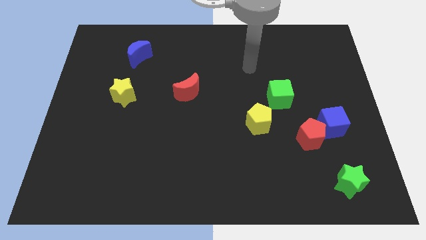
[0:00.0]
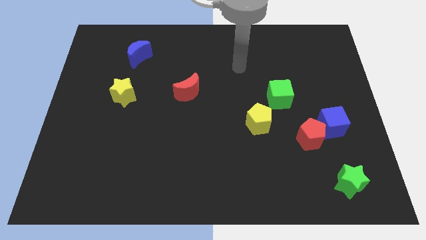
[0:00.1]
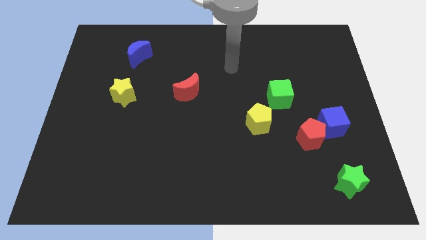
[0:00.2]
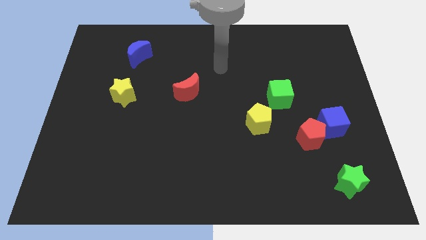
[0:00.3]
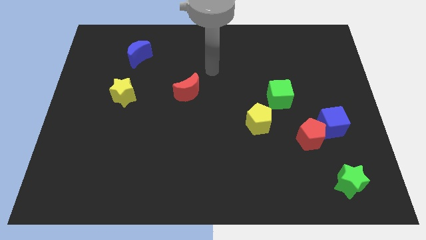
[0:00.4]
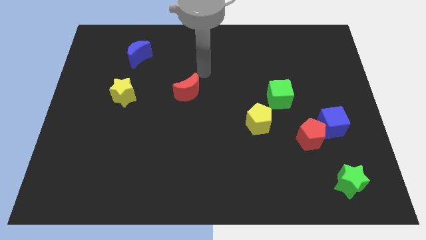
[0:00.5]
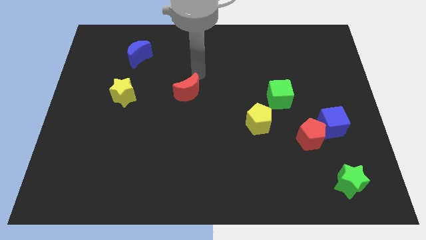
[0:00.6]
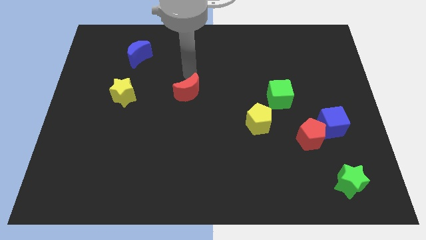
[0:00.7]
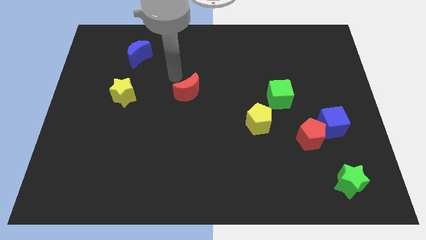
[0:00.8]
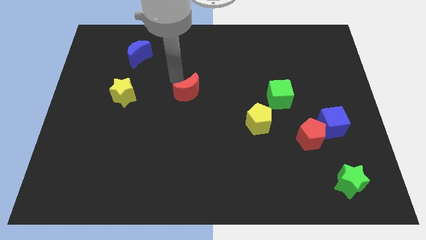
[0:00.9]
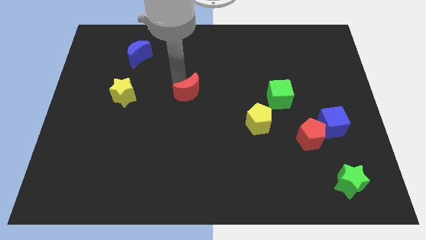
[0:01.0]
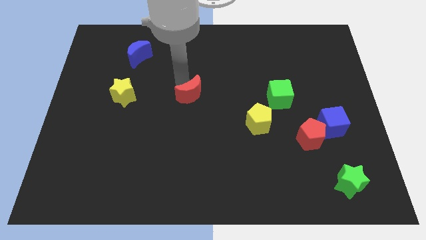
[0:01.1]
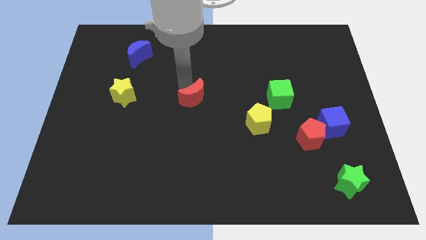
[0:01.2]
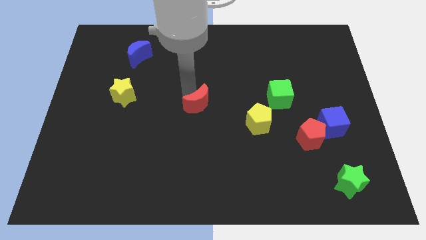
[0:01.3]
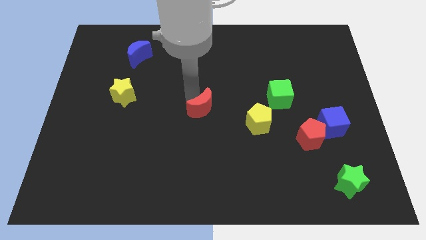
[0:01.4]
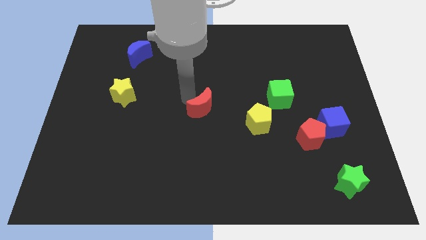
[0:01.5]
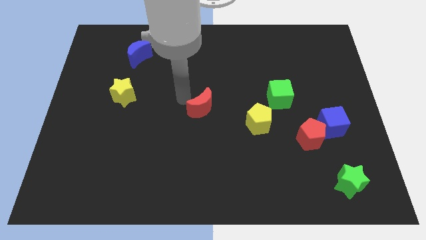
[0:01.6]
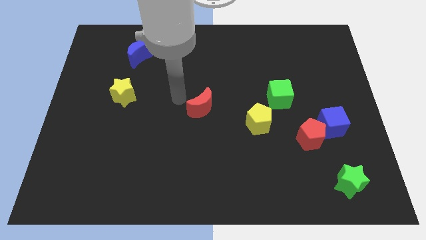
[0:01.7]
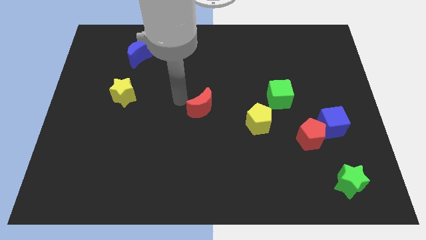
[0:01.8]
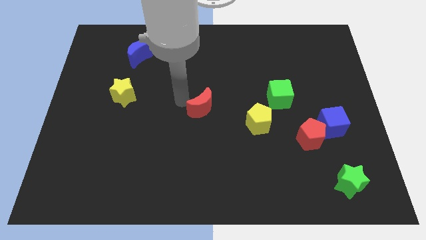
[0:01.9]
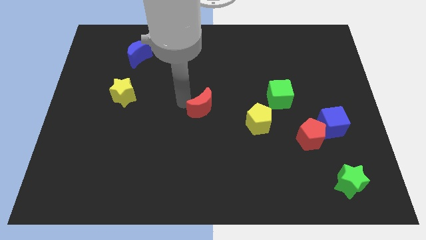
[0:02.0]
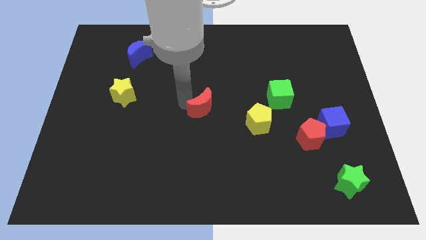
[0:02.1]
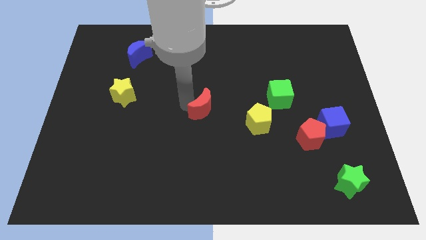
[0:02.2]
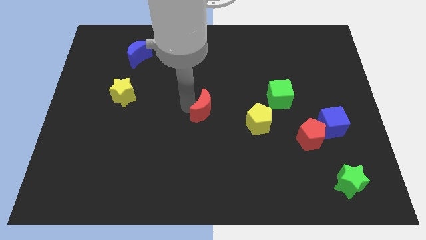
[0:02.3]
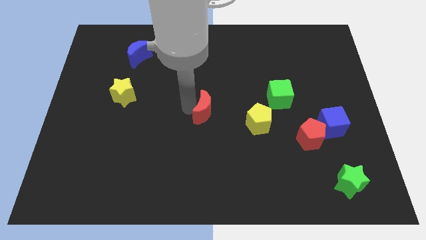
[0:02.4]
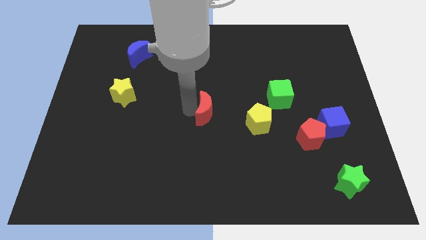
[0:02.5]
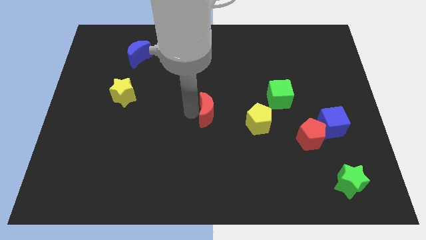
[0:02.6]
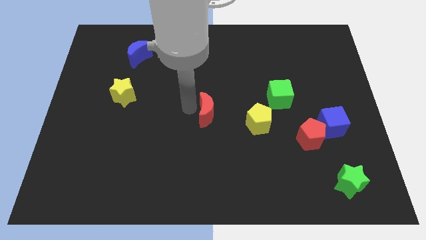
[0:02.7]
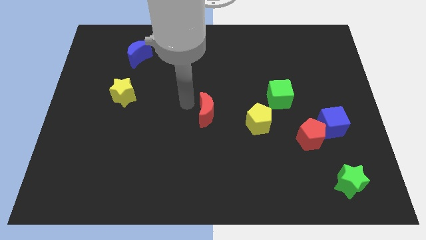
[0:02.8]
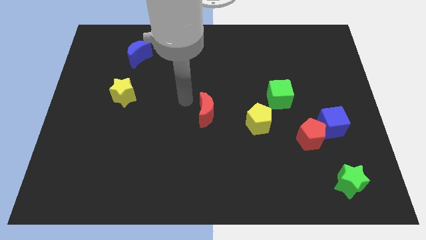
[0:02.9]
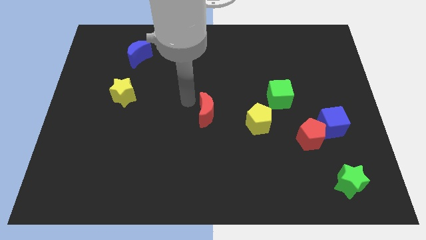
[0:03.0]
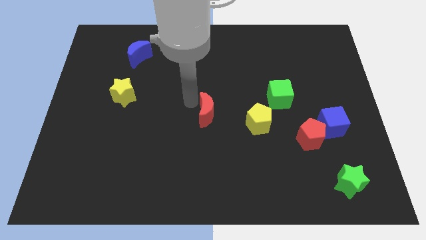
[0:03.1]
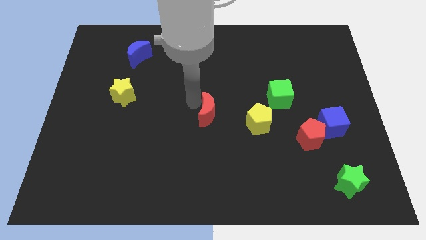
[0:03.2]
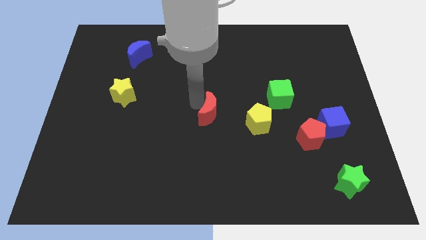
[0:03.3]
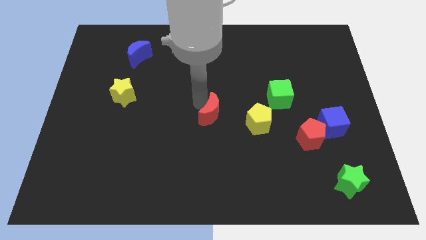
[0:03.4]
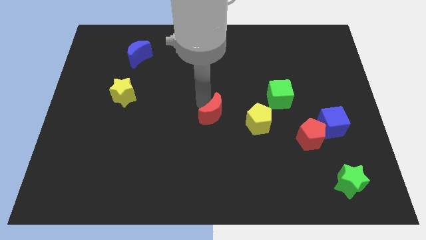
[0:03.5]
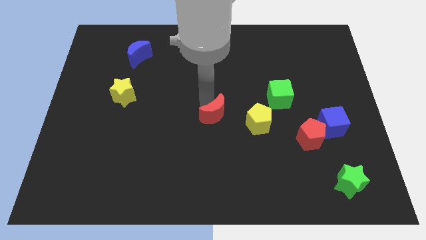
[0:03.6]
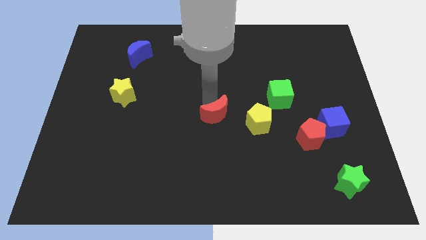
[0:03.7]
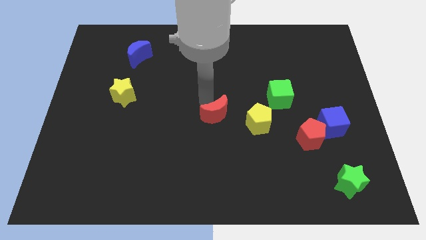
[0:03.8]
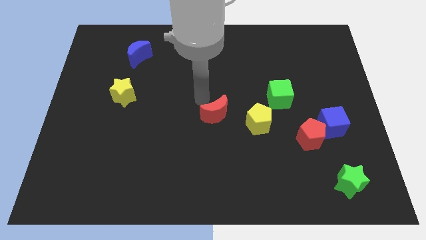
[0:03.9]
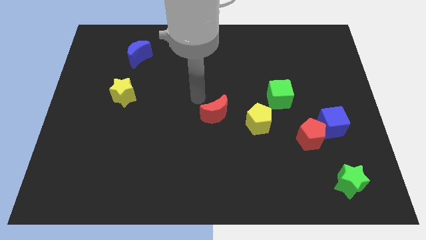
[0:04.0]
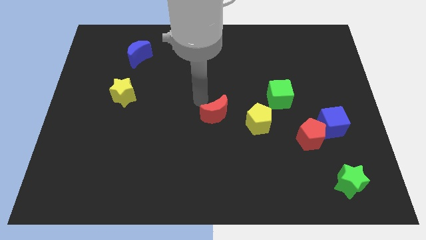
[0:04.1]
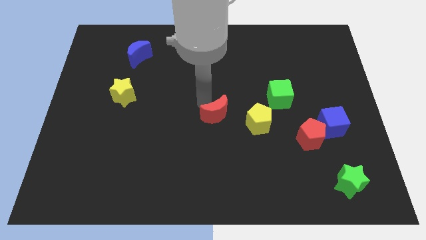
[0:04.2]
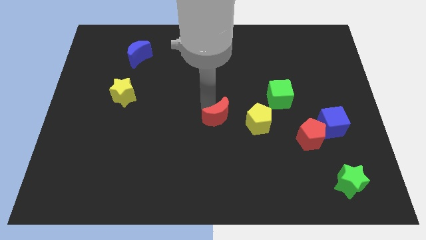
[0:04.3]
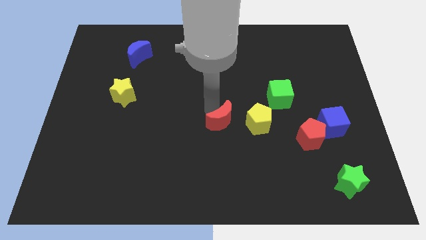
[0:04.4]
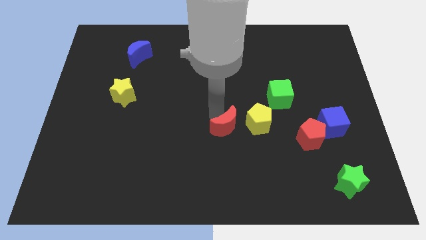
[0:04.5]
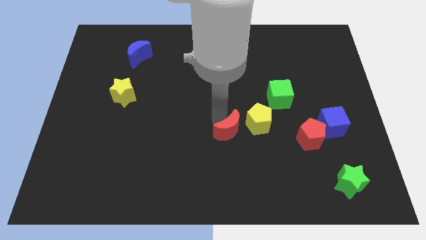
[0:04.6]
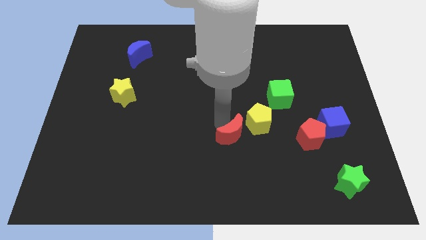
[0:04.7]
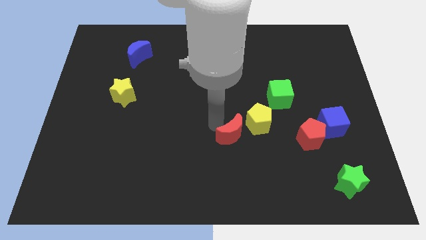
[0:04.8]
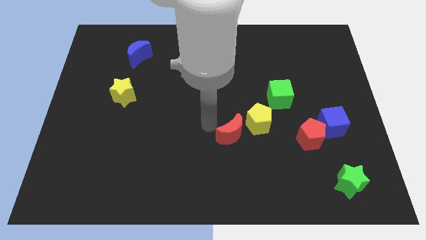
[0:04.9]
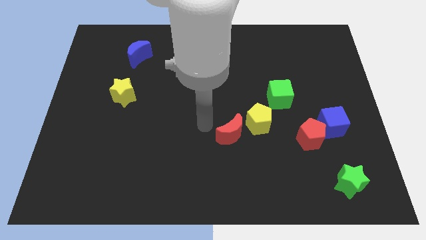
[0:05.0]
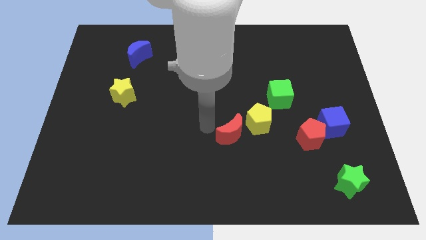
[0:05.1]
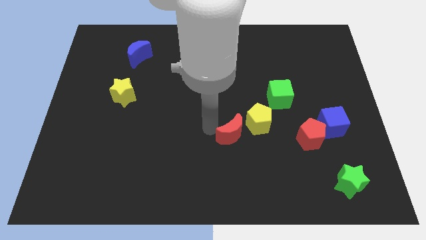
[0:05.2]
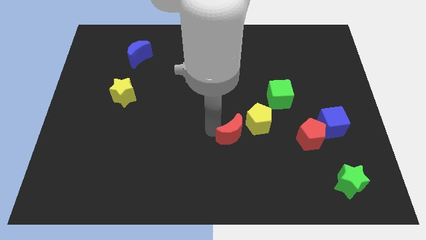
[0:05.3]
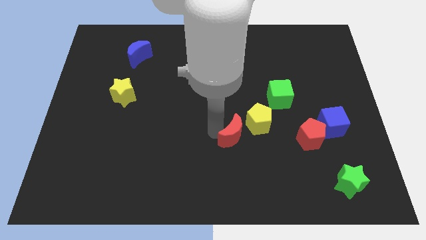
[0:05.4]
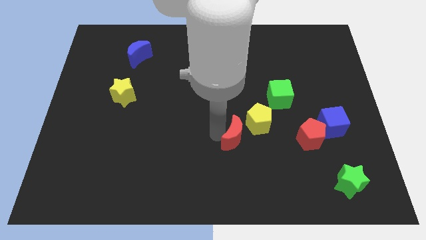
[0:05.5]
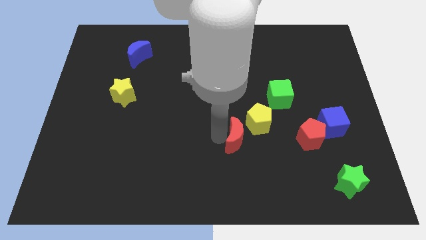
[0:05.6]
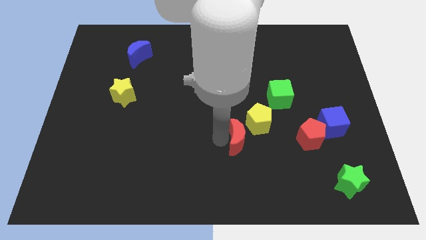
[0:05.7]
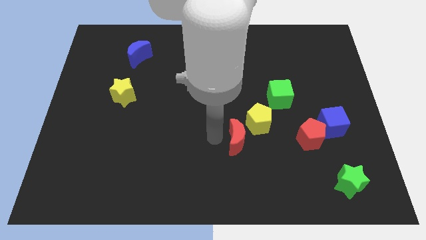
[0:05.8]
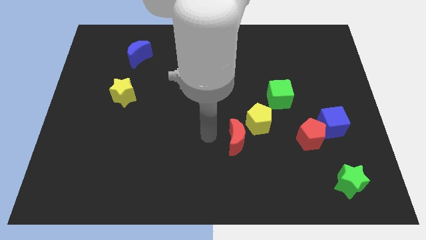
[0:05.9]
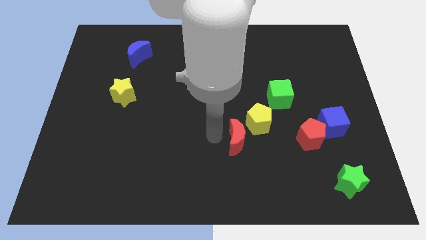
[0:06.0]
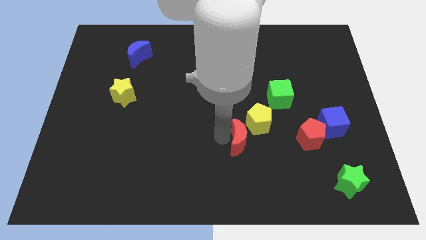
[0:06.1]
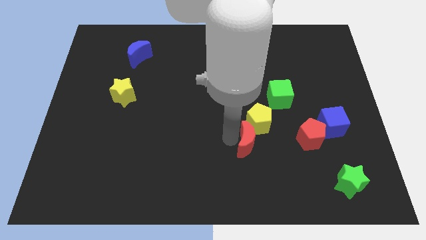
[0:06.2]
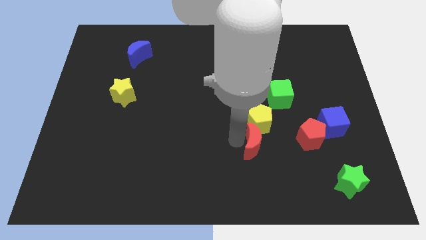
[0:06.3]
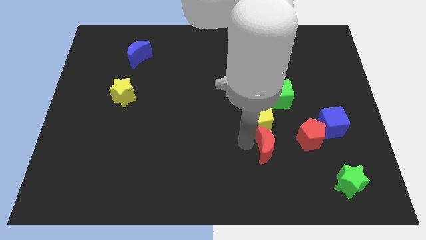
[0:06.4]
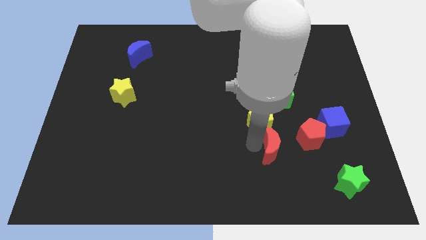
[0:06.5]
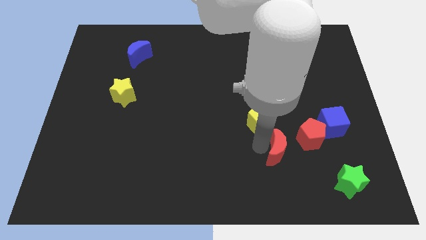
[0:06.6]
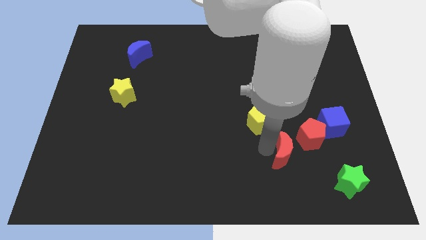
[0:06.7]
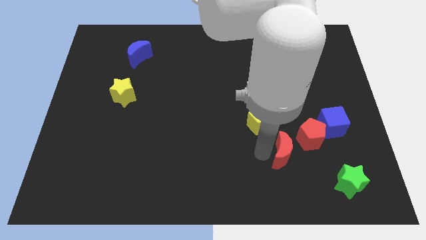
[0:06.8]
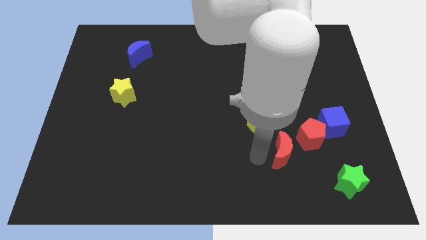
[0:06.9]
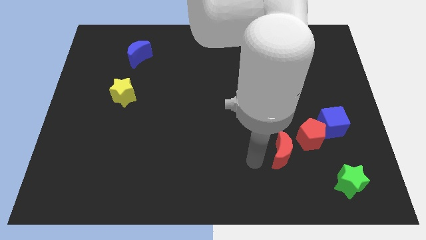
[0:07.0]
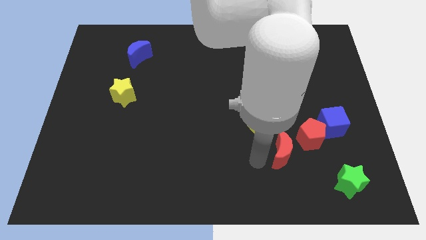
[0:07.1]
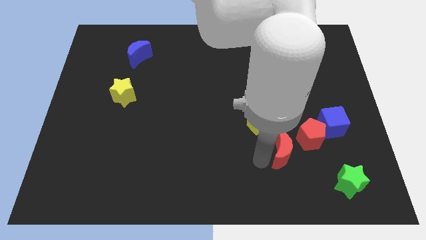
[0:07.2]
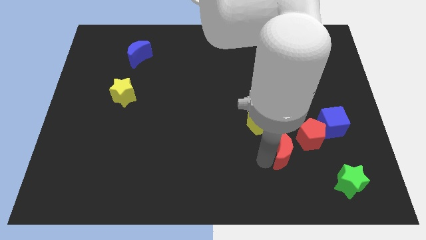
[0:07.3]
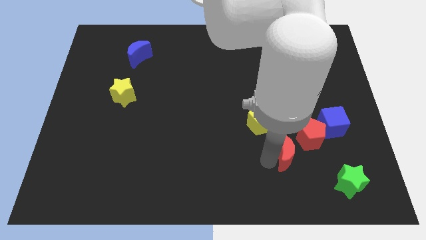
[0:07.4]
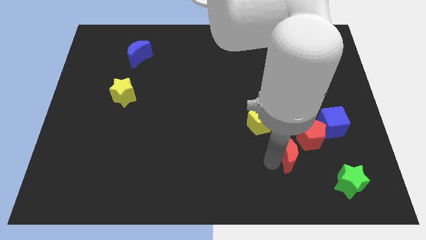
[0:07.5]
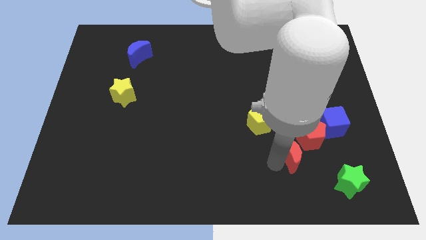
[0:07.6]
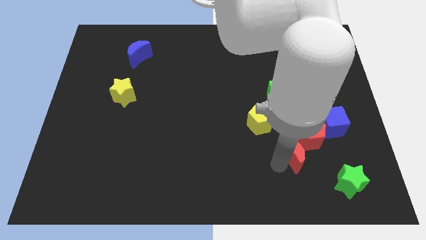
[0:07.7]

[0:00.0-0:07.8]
push the red moon to the bottom left of the blue cube
